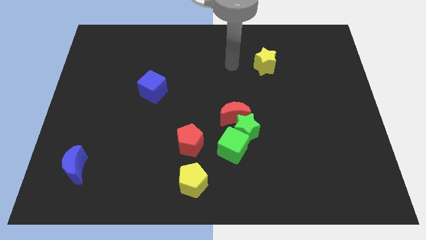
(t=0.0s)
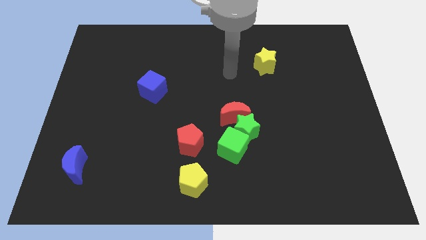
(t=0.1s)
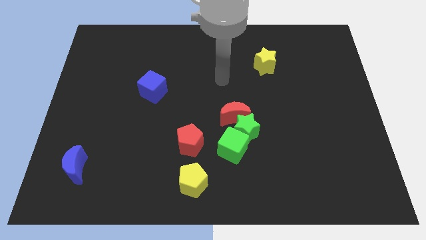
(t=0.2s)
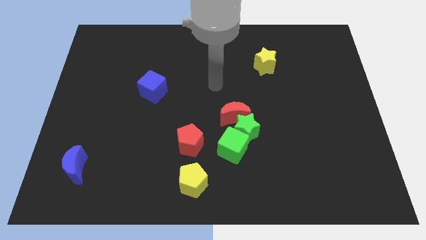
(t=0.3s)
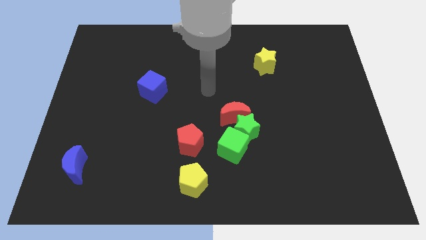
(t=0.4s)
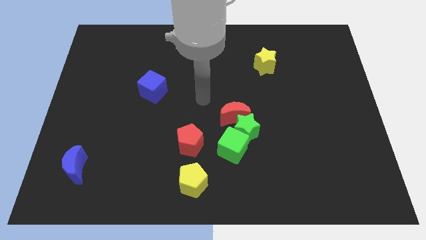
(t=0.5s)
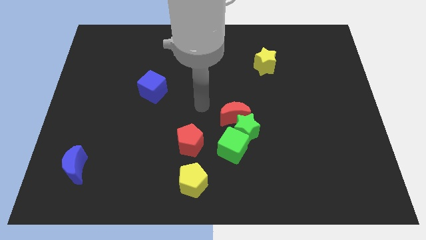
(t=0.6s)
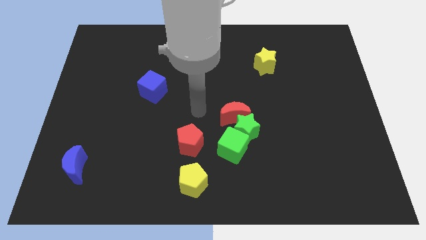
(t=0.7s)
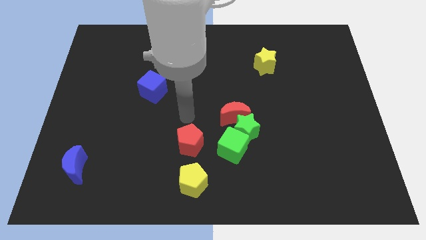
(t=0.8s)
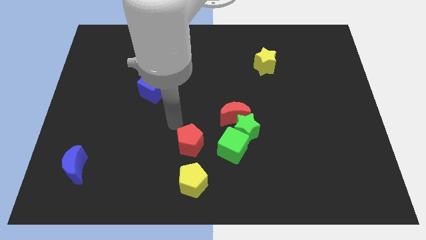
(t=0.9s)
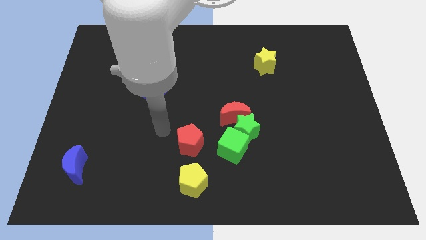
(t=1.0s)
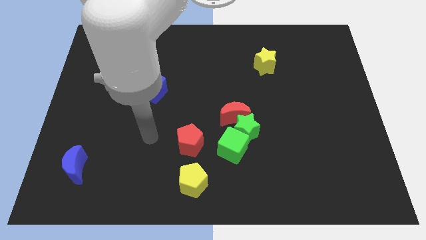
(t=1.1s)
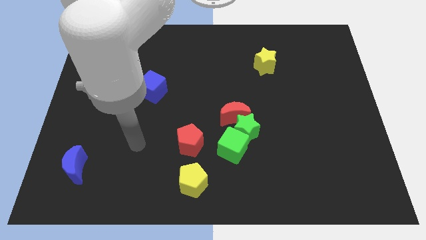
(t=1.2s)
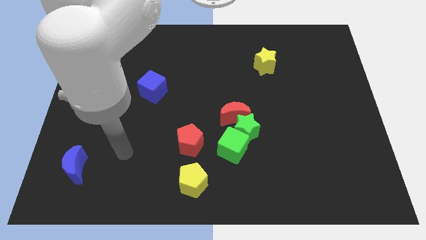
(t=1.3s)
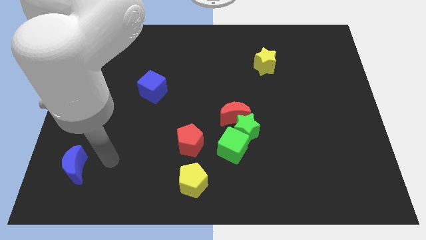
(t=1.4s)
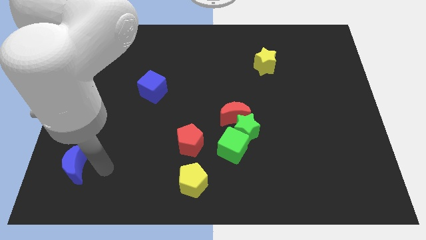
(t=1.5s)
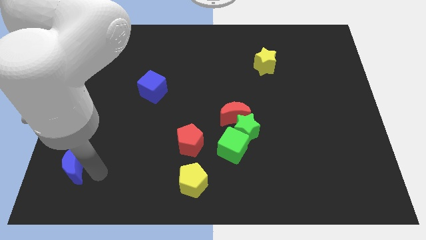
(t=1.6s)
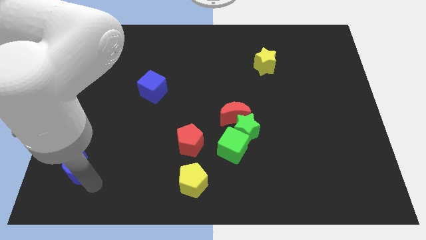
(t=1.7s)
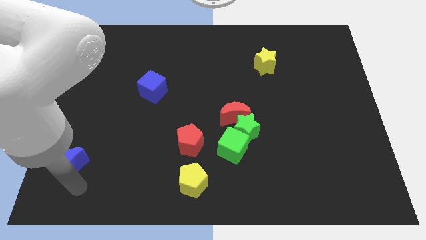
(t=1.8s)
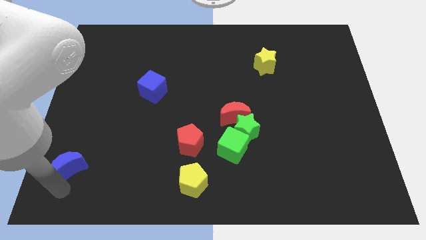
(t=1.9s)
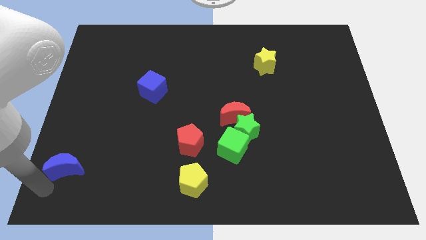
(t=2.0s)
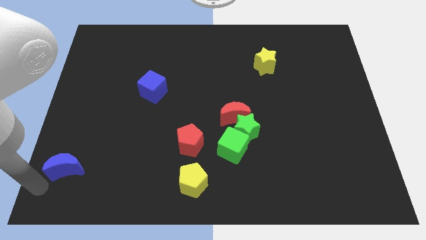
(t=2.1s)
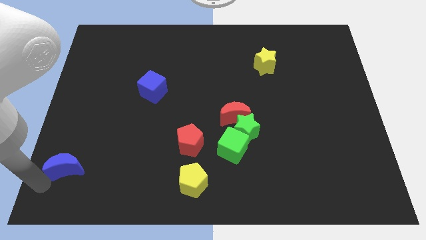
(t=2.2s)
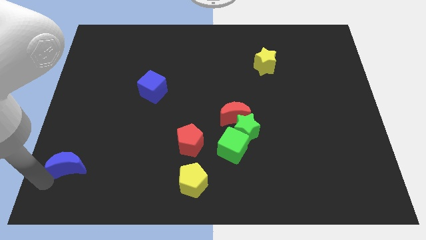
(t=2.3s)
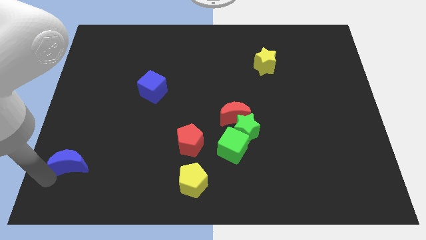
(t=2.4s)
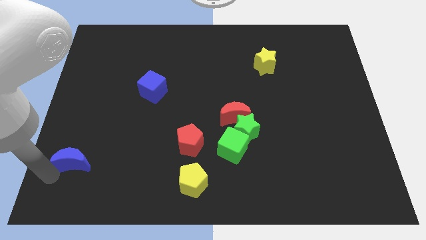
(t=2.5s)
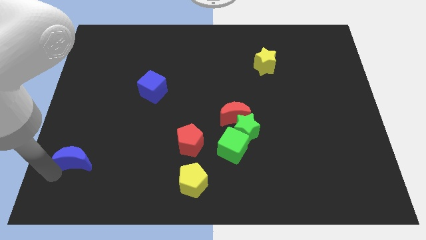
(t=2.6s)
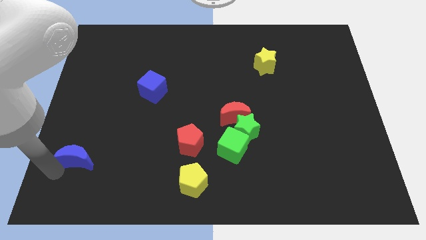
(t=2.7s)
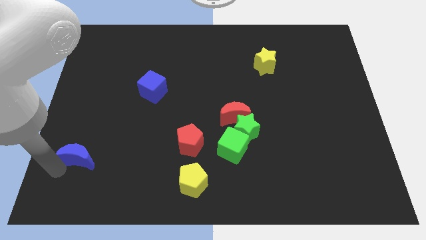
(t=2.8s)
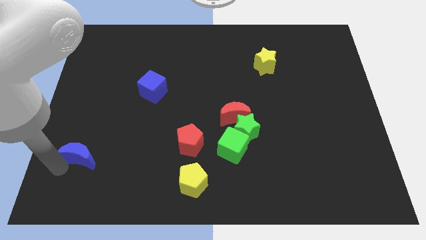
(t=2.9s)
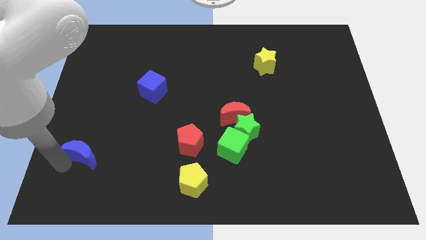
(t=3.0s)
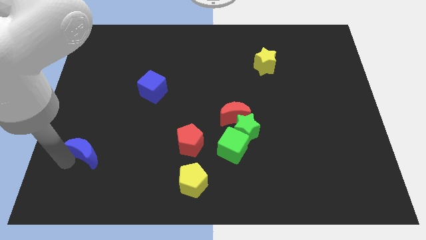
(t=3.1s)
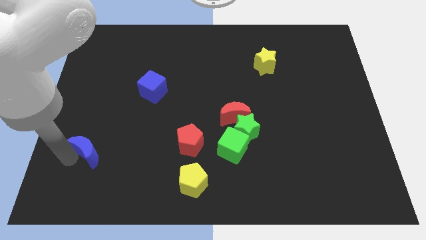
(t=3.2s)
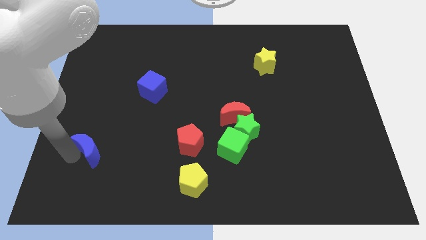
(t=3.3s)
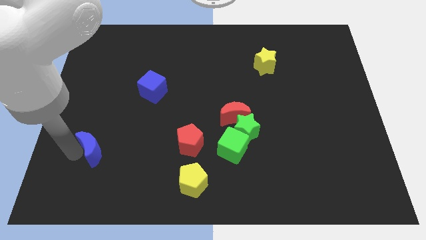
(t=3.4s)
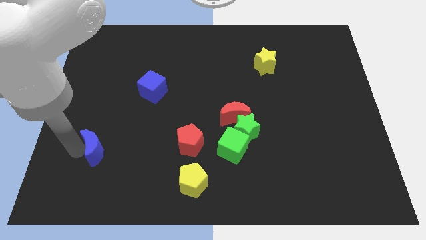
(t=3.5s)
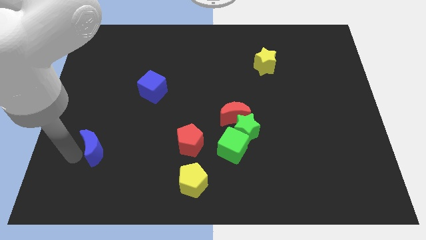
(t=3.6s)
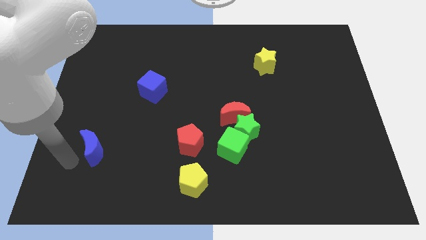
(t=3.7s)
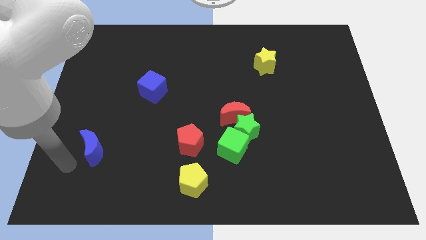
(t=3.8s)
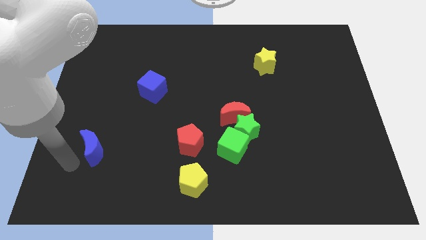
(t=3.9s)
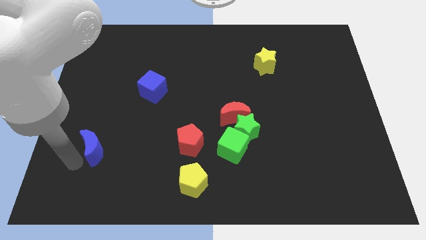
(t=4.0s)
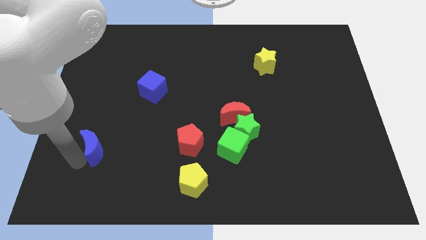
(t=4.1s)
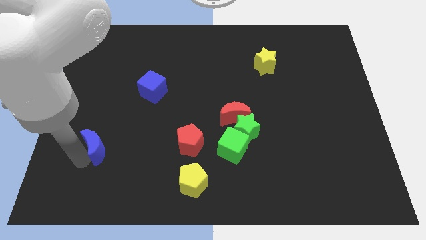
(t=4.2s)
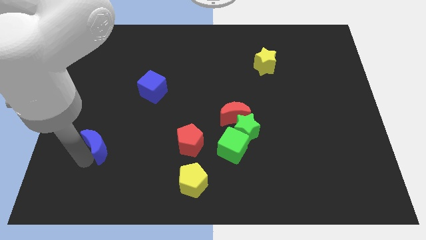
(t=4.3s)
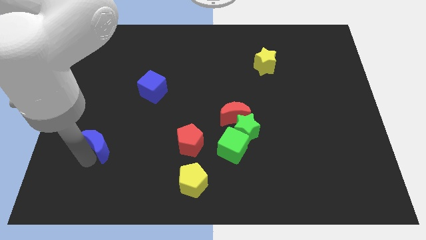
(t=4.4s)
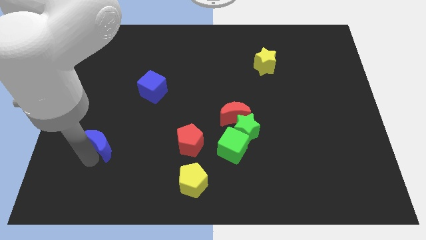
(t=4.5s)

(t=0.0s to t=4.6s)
slightly move the blue moon diagonally upwards and right

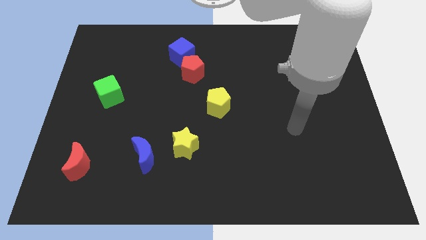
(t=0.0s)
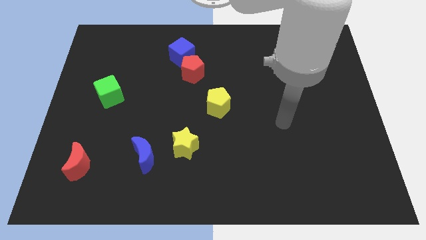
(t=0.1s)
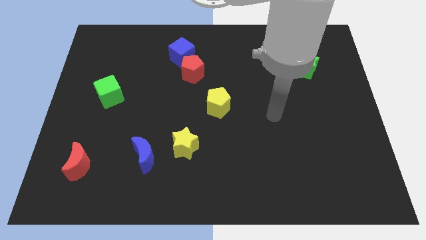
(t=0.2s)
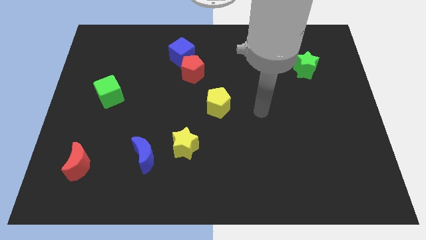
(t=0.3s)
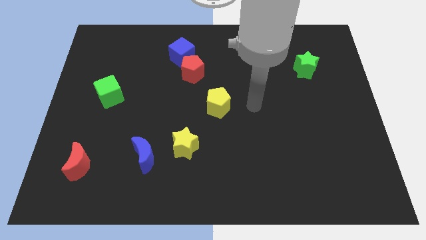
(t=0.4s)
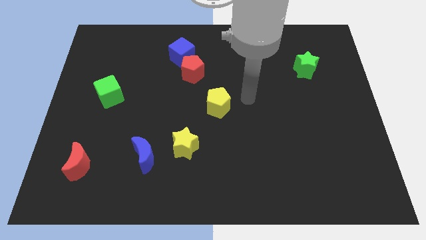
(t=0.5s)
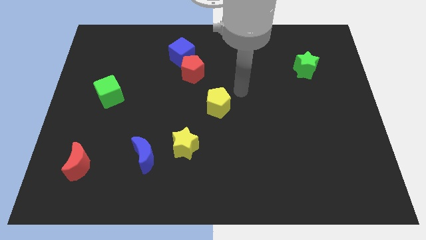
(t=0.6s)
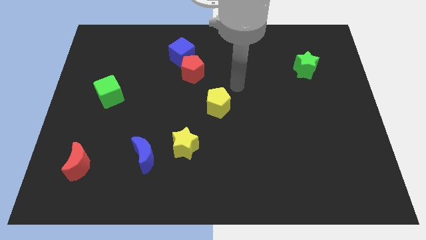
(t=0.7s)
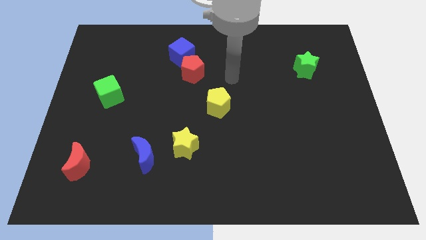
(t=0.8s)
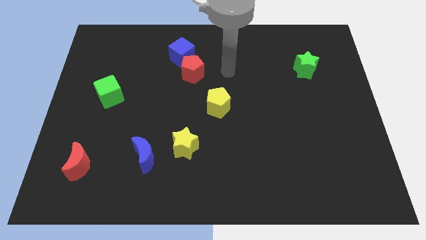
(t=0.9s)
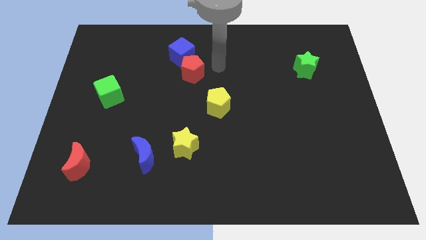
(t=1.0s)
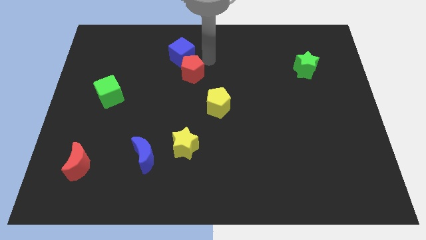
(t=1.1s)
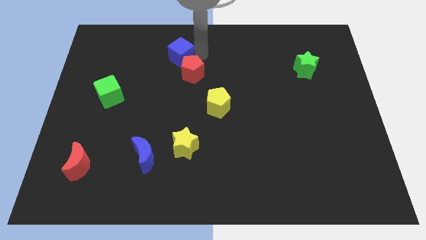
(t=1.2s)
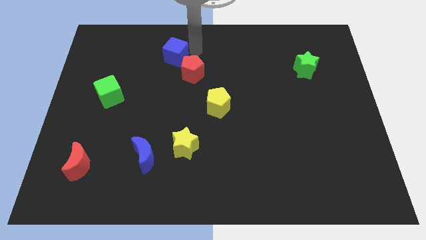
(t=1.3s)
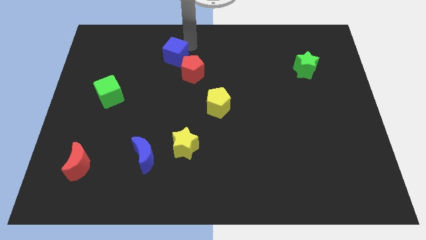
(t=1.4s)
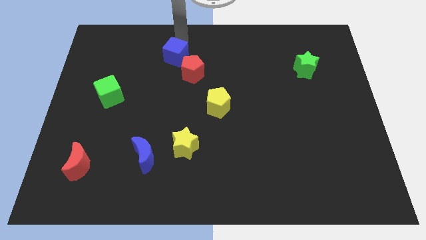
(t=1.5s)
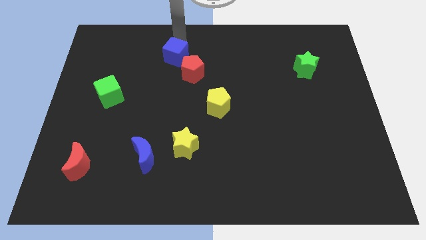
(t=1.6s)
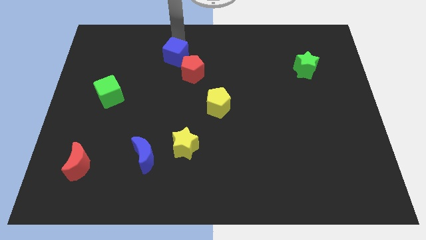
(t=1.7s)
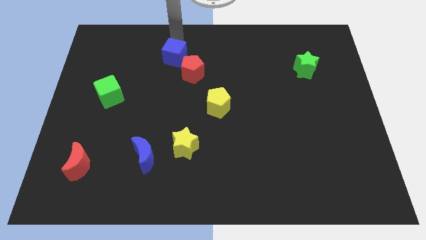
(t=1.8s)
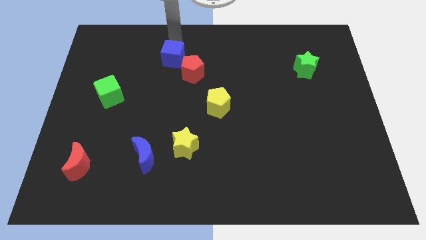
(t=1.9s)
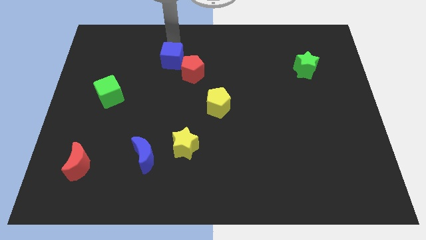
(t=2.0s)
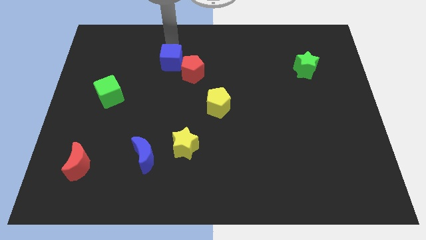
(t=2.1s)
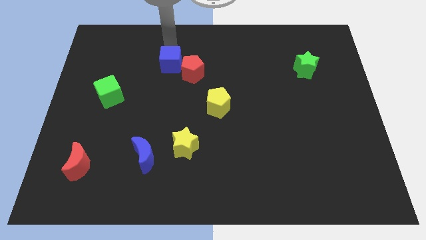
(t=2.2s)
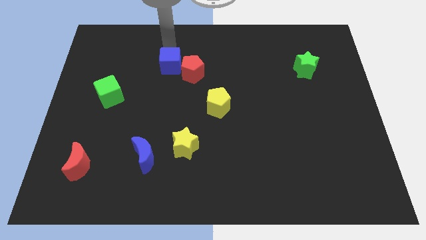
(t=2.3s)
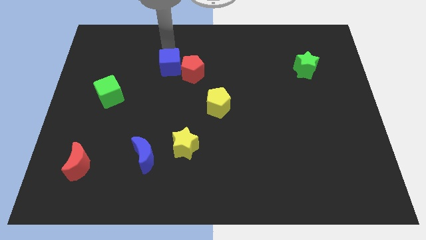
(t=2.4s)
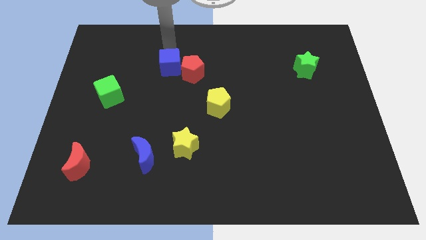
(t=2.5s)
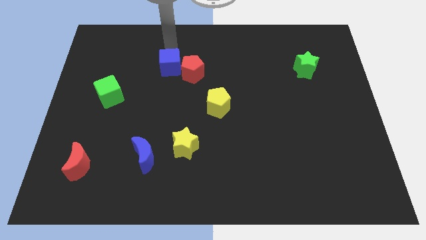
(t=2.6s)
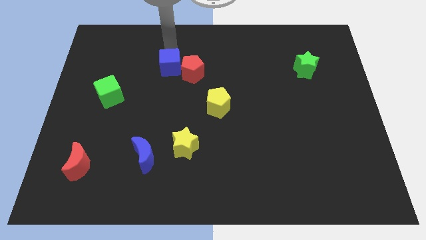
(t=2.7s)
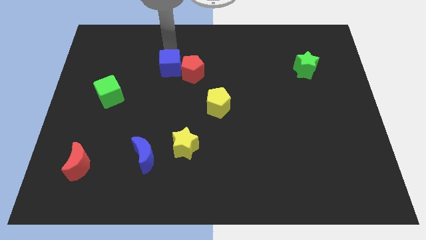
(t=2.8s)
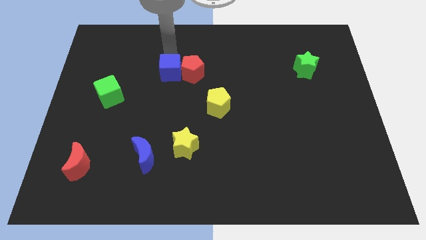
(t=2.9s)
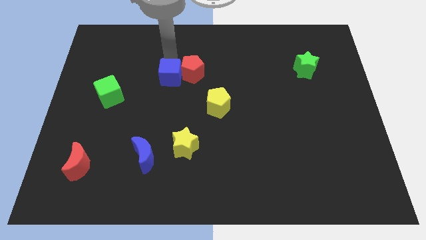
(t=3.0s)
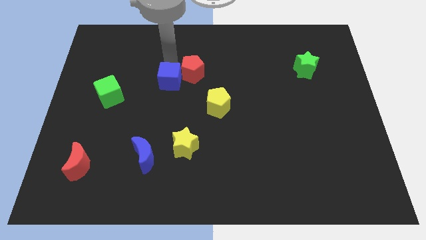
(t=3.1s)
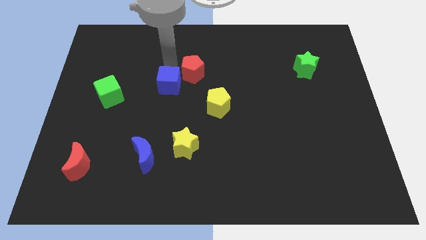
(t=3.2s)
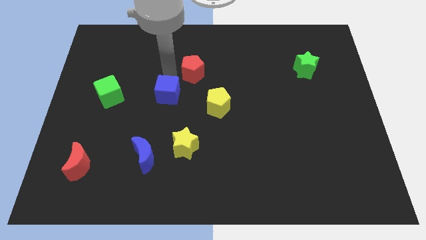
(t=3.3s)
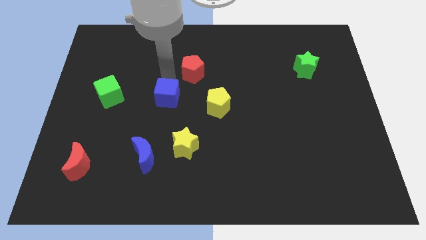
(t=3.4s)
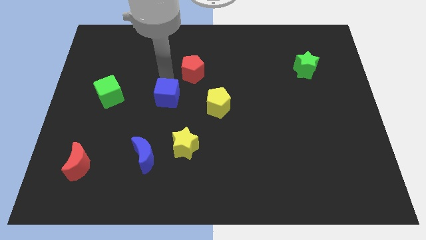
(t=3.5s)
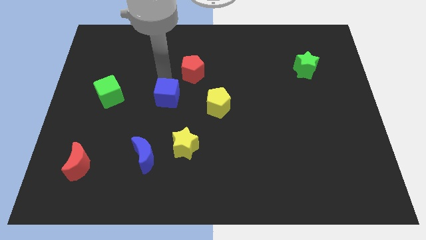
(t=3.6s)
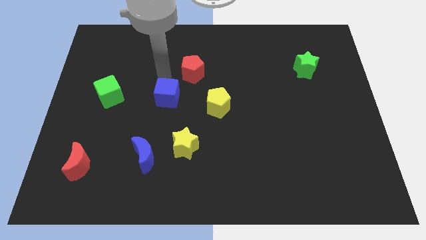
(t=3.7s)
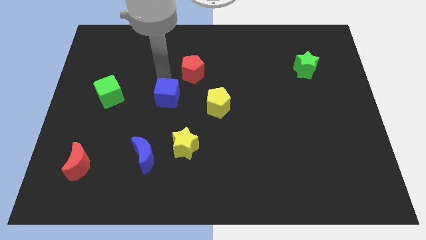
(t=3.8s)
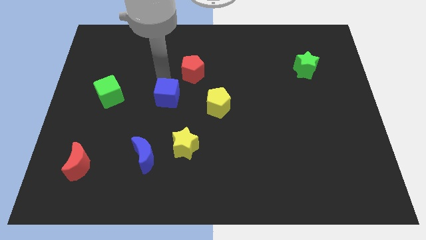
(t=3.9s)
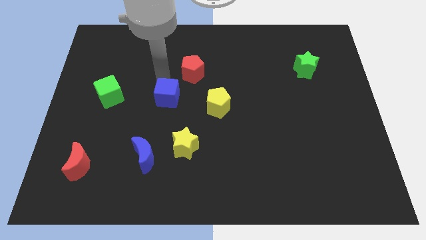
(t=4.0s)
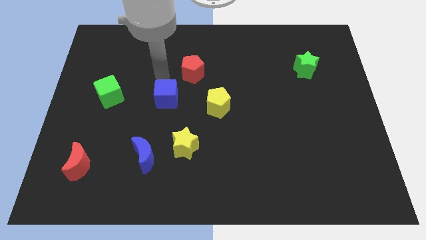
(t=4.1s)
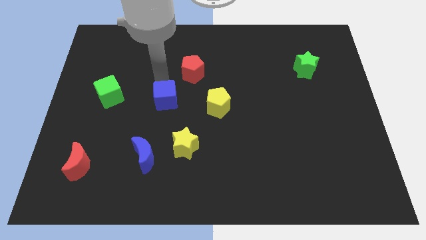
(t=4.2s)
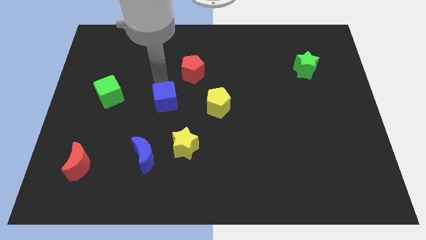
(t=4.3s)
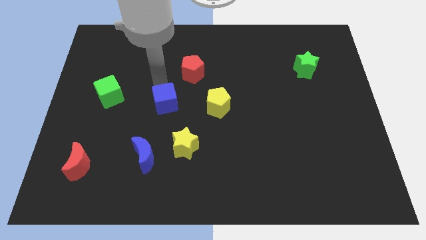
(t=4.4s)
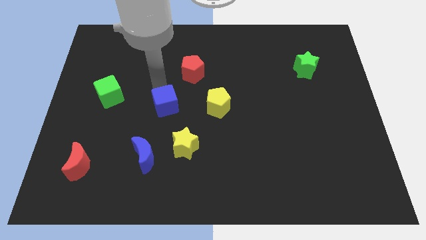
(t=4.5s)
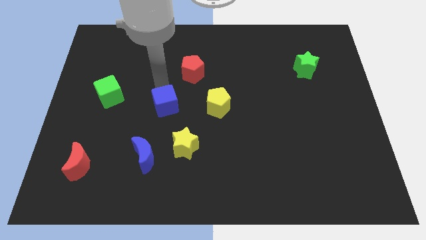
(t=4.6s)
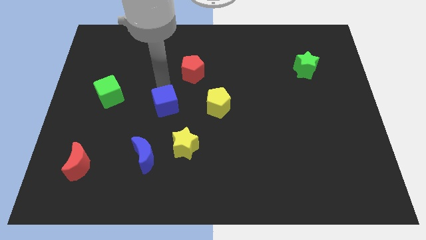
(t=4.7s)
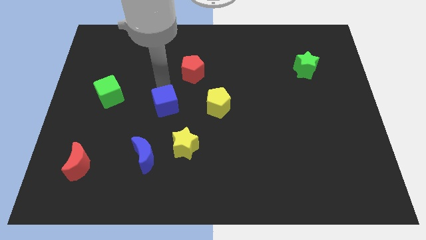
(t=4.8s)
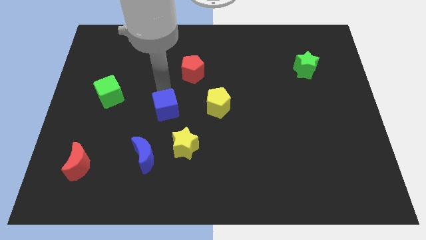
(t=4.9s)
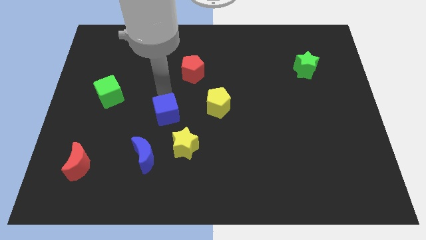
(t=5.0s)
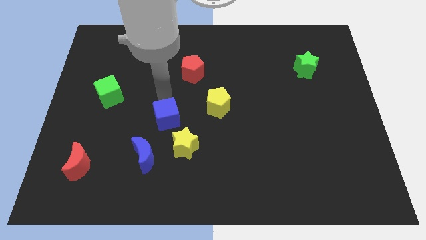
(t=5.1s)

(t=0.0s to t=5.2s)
slide the blue cube down
